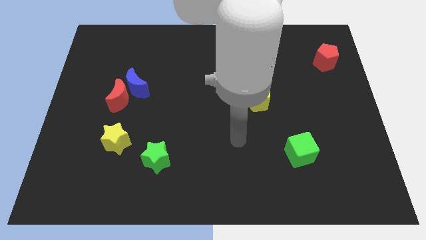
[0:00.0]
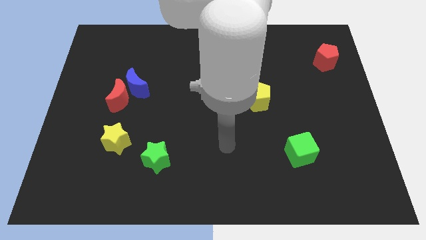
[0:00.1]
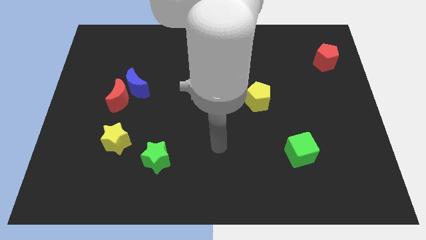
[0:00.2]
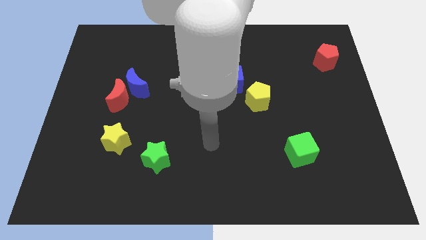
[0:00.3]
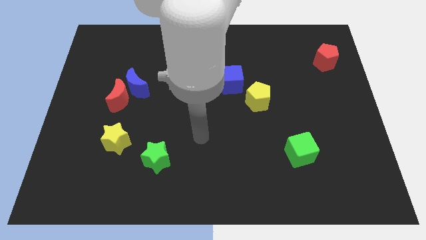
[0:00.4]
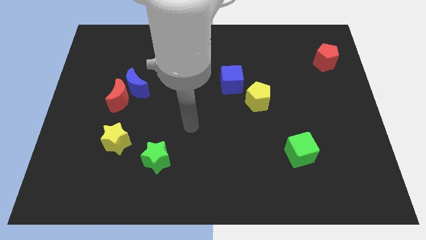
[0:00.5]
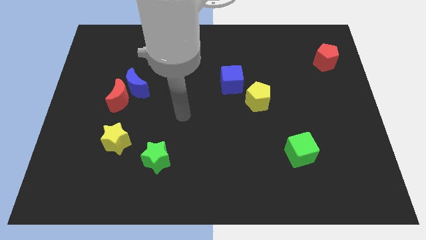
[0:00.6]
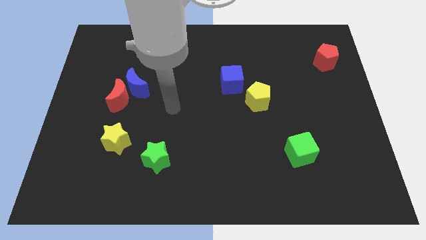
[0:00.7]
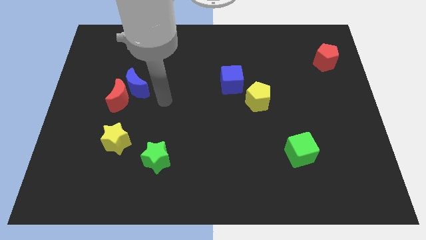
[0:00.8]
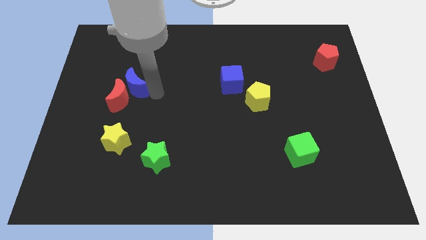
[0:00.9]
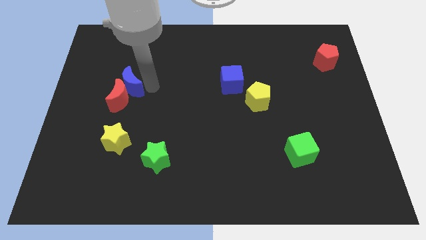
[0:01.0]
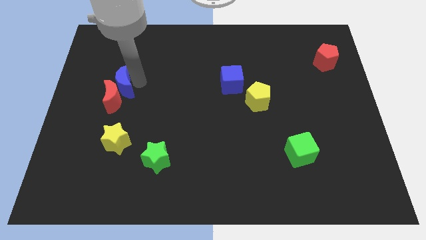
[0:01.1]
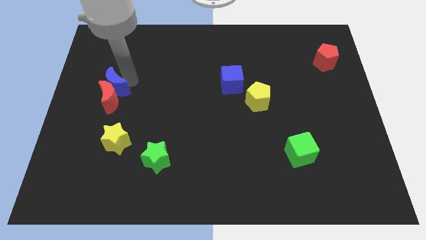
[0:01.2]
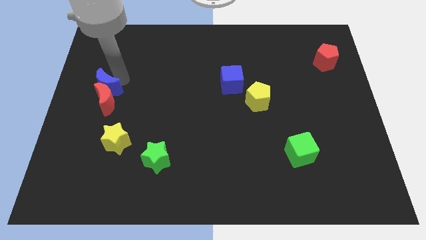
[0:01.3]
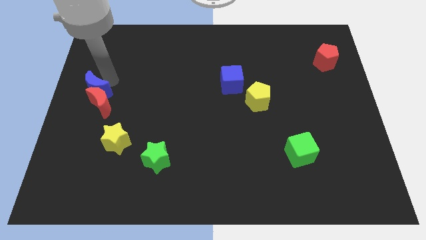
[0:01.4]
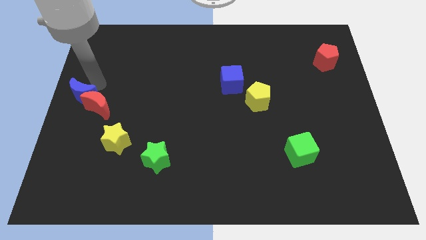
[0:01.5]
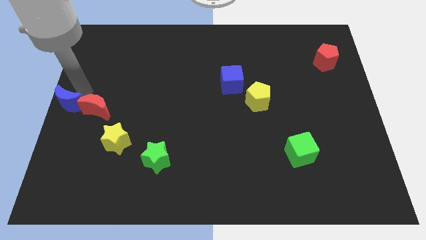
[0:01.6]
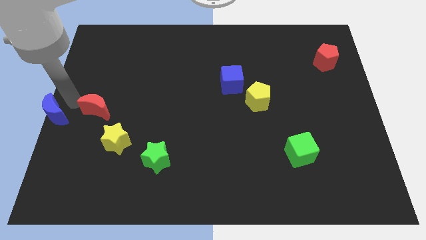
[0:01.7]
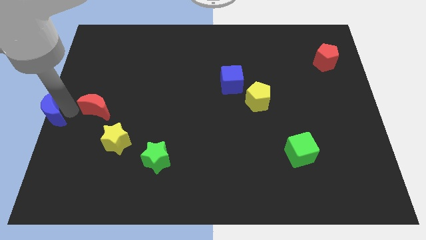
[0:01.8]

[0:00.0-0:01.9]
separate the red moon from the blue moon

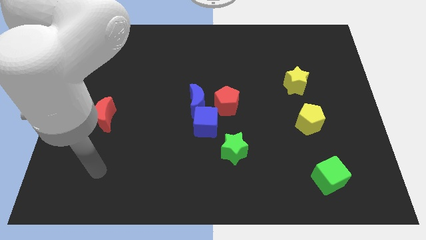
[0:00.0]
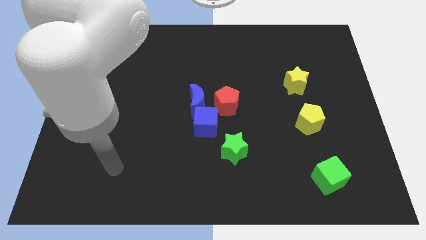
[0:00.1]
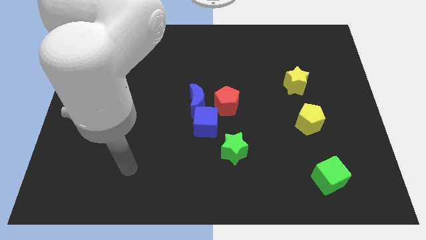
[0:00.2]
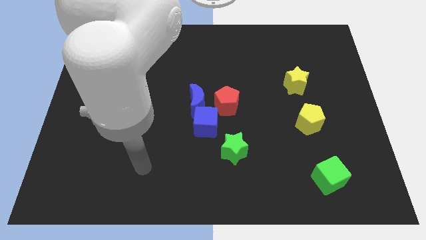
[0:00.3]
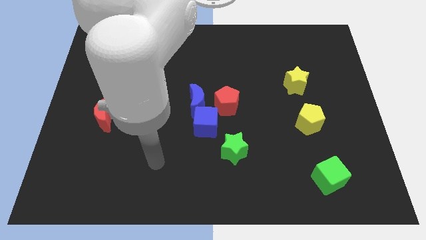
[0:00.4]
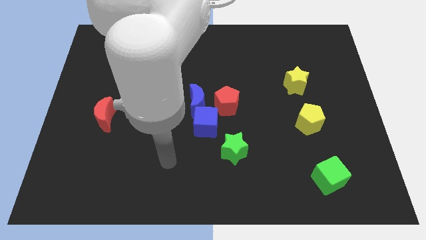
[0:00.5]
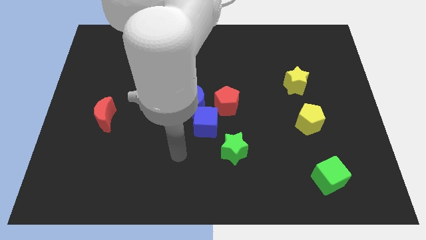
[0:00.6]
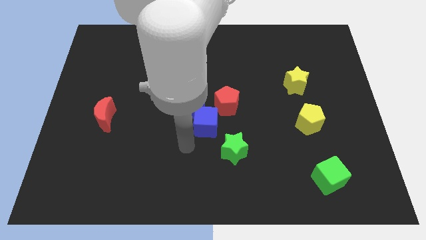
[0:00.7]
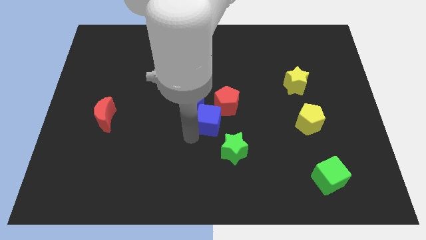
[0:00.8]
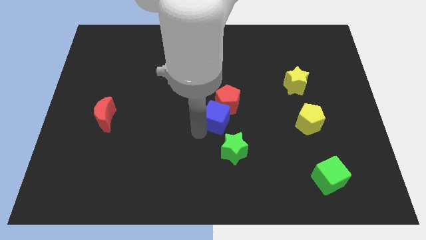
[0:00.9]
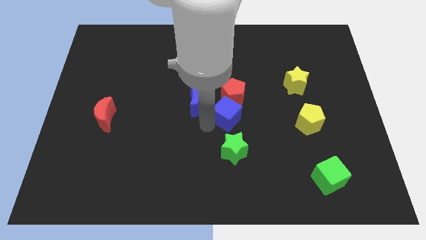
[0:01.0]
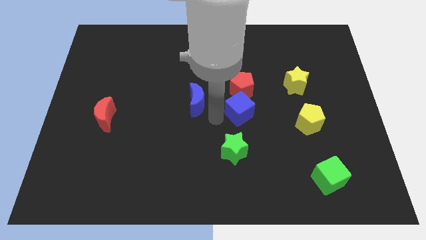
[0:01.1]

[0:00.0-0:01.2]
move the blue moon away from the blue cube and red pentagon

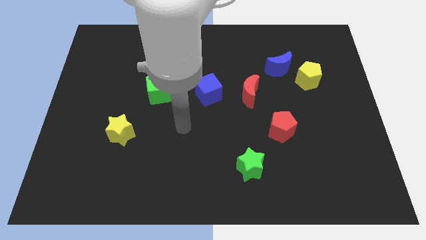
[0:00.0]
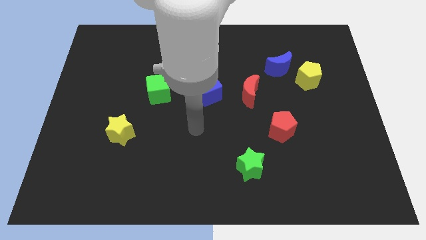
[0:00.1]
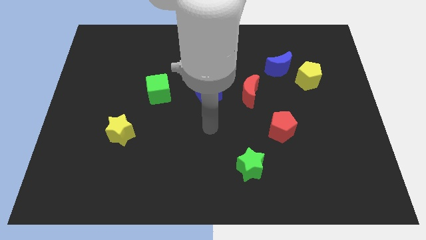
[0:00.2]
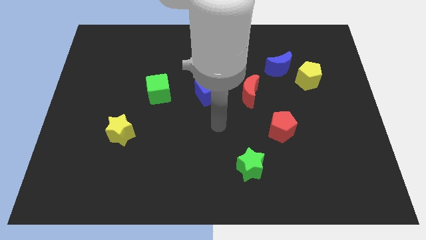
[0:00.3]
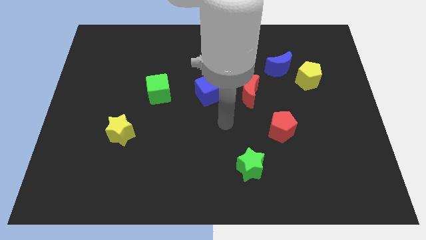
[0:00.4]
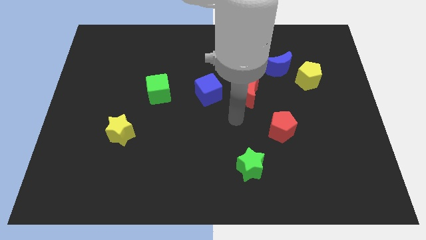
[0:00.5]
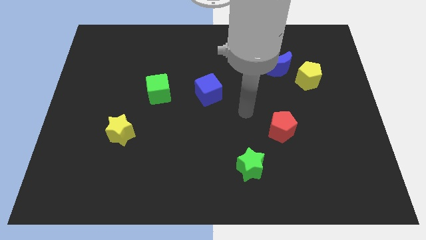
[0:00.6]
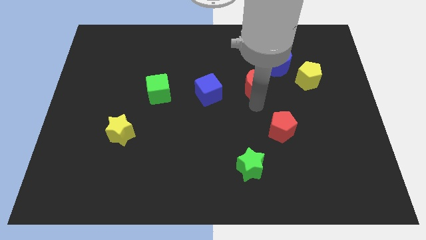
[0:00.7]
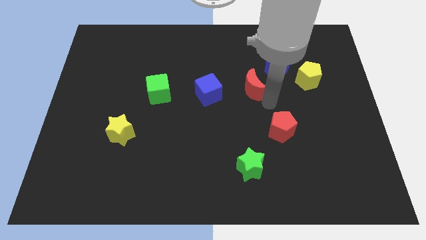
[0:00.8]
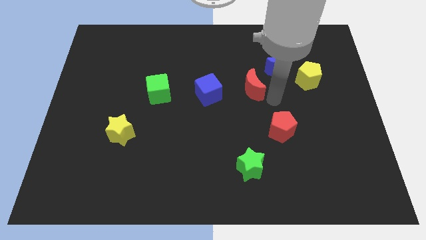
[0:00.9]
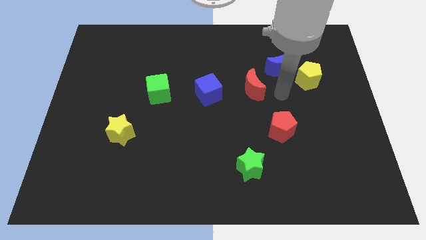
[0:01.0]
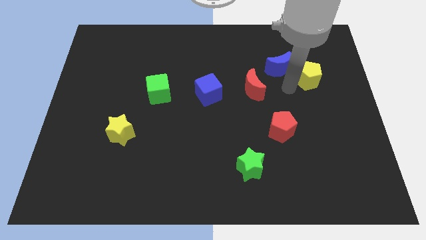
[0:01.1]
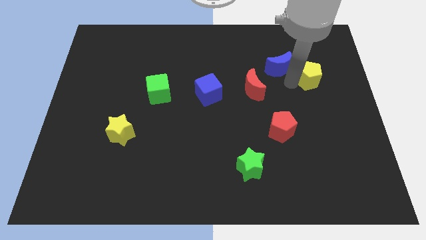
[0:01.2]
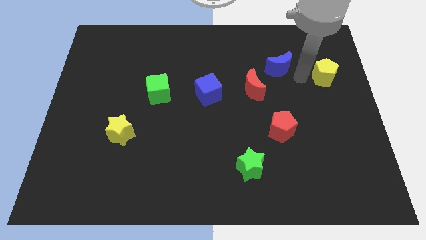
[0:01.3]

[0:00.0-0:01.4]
separate the blue moon from the yellow pentagon

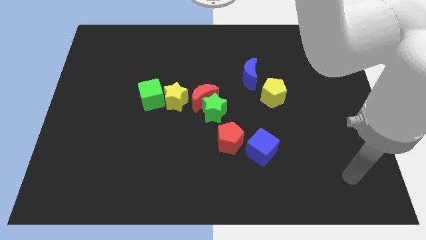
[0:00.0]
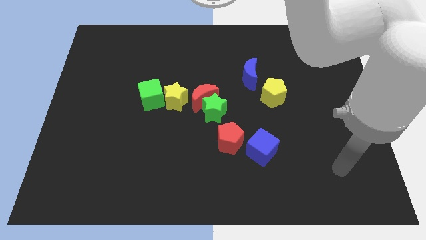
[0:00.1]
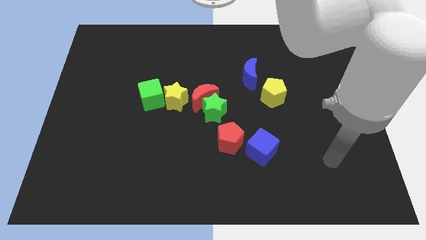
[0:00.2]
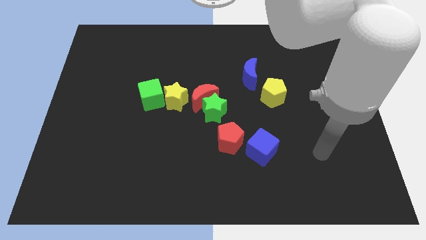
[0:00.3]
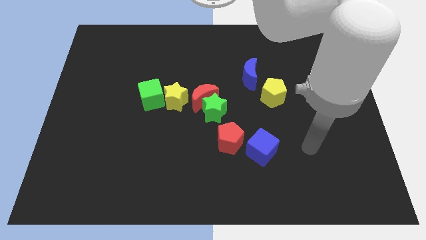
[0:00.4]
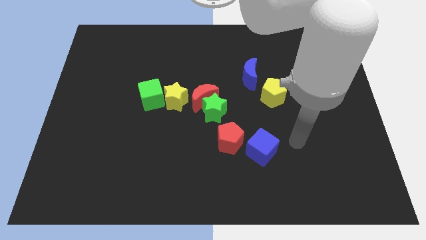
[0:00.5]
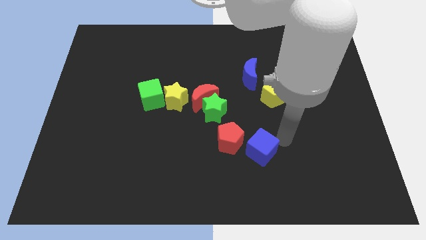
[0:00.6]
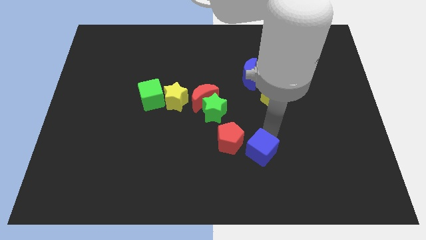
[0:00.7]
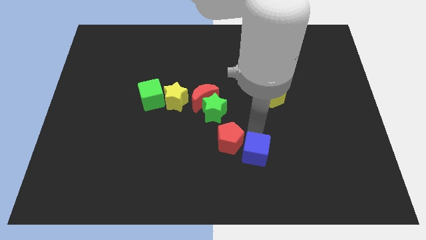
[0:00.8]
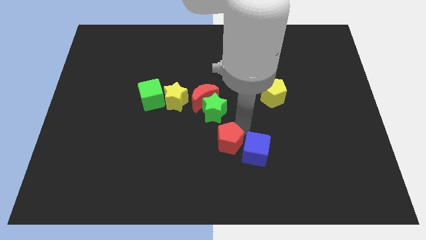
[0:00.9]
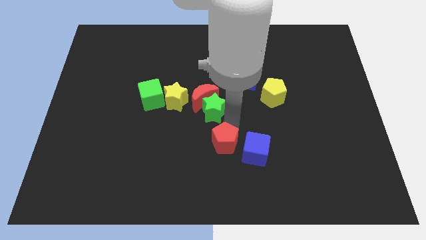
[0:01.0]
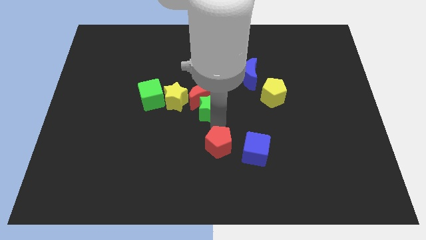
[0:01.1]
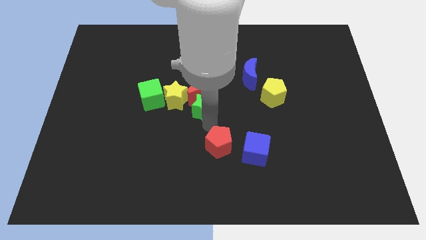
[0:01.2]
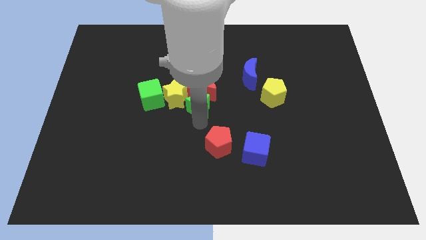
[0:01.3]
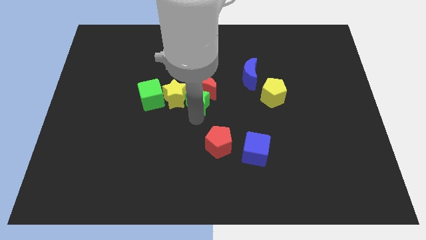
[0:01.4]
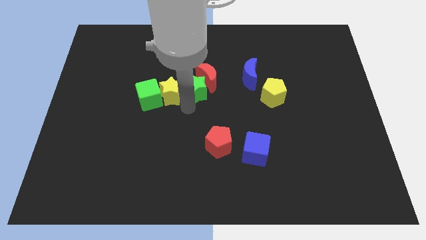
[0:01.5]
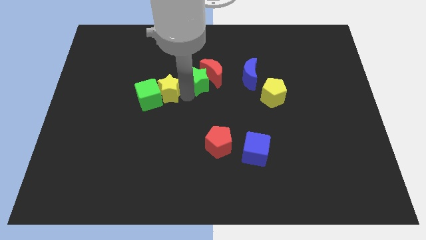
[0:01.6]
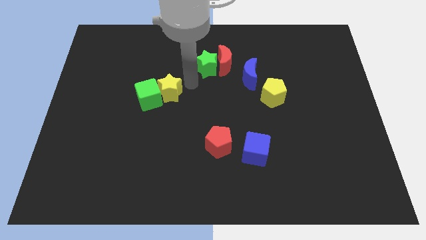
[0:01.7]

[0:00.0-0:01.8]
pull the red moon apart from the green star and yellow star

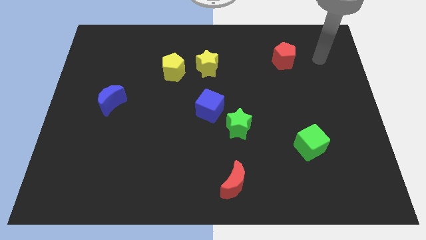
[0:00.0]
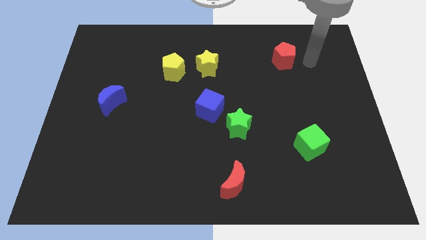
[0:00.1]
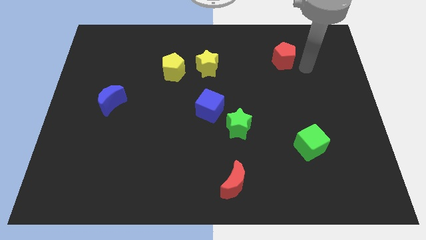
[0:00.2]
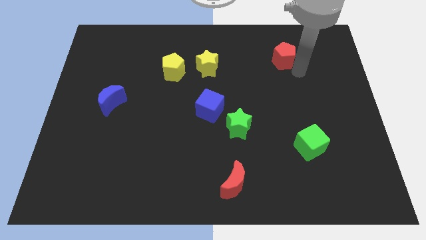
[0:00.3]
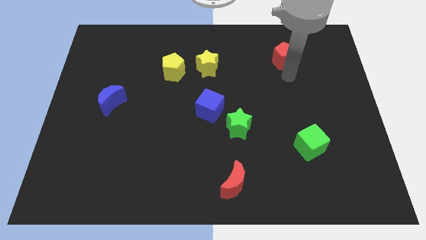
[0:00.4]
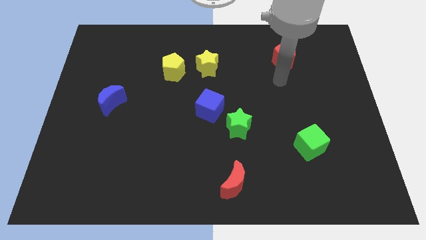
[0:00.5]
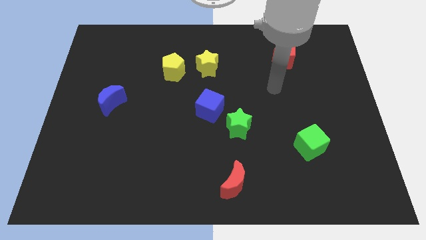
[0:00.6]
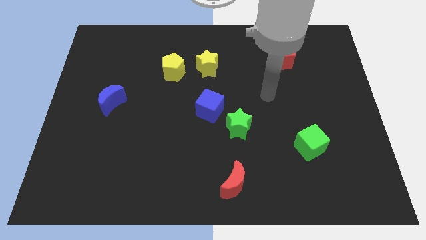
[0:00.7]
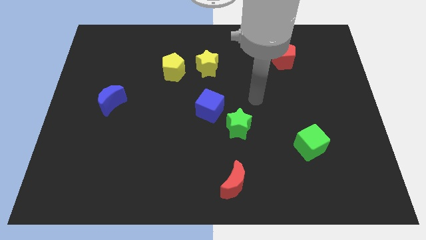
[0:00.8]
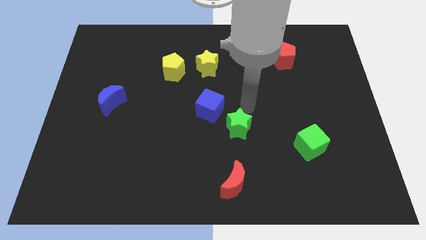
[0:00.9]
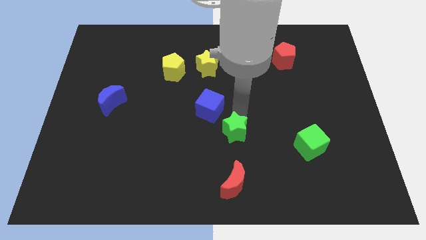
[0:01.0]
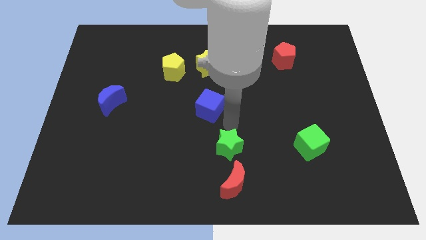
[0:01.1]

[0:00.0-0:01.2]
move the blue cube away from the green star

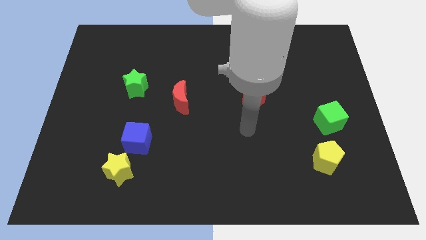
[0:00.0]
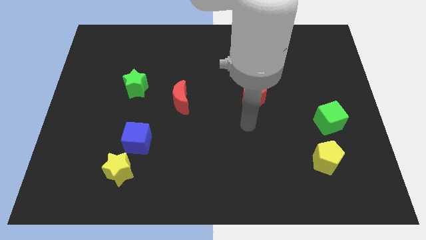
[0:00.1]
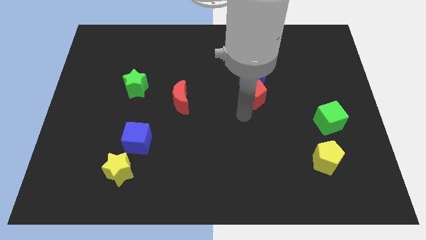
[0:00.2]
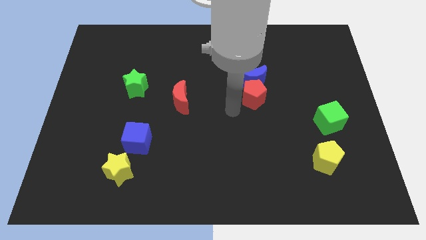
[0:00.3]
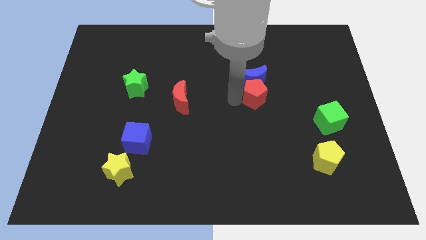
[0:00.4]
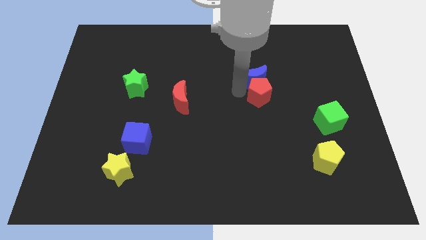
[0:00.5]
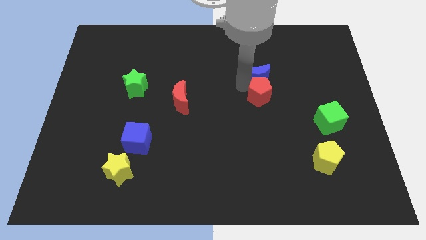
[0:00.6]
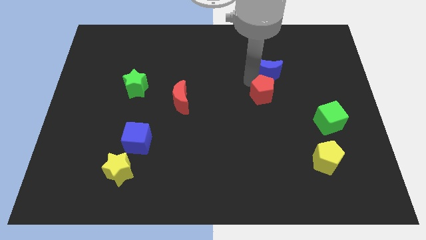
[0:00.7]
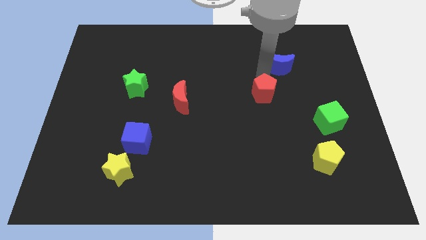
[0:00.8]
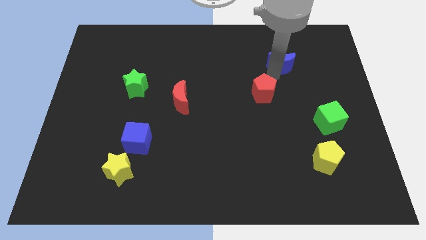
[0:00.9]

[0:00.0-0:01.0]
pull the red pentagon apart from the blue moon

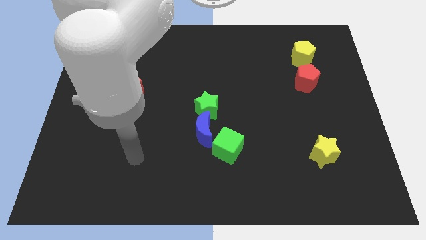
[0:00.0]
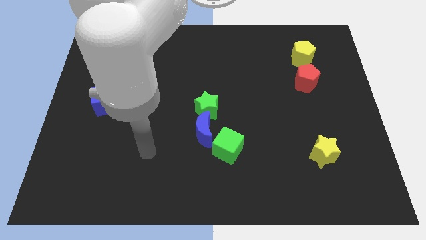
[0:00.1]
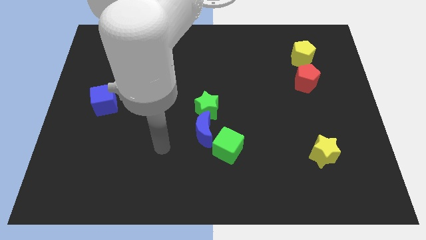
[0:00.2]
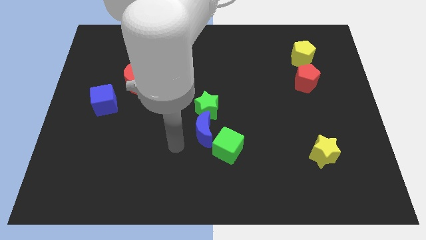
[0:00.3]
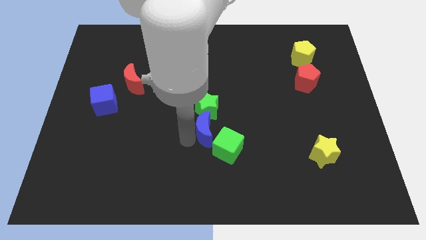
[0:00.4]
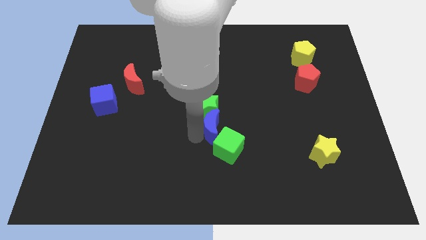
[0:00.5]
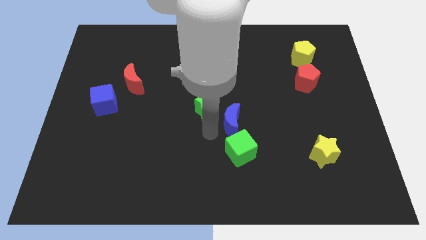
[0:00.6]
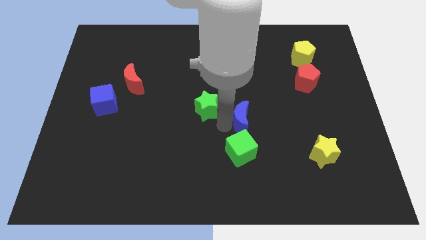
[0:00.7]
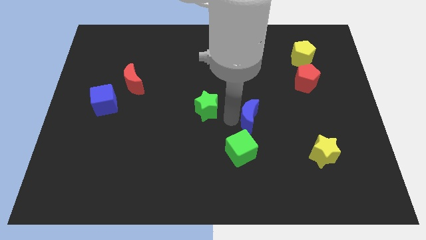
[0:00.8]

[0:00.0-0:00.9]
pull the green star apart from the blue moon
